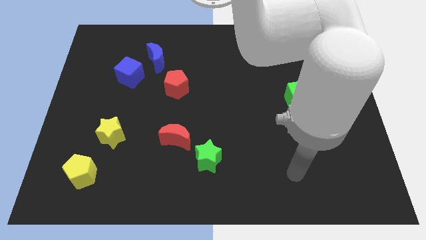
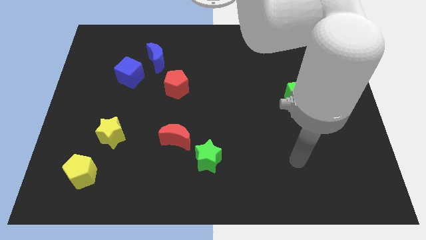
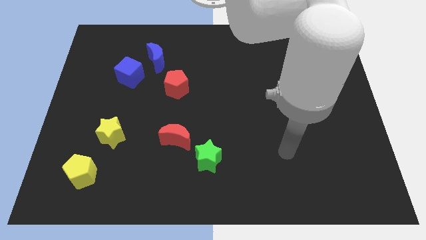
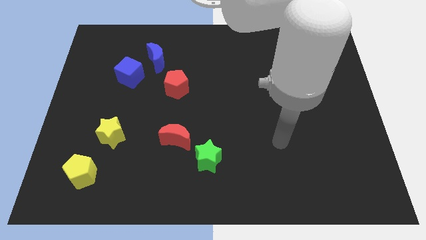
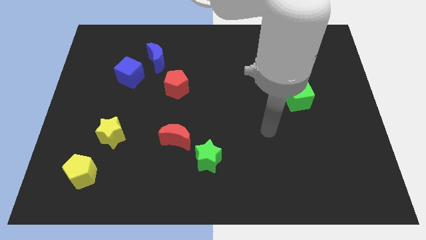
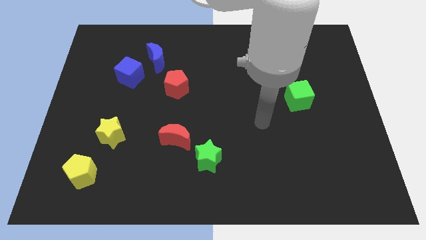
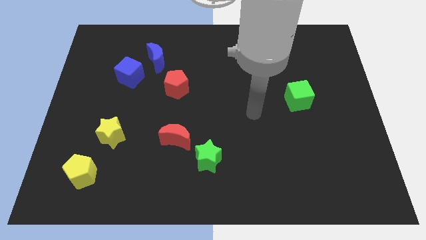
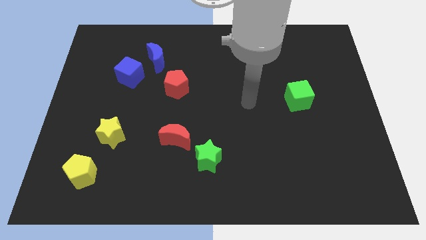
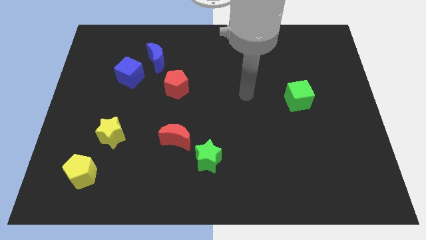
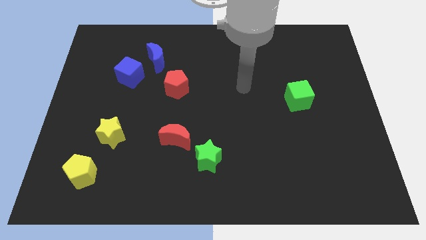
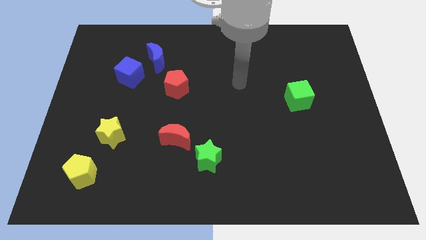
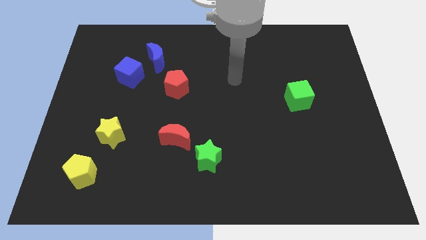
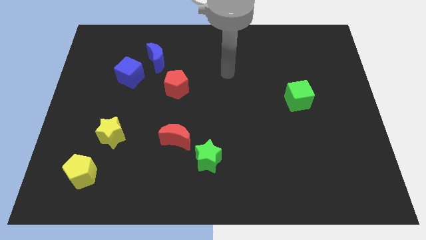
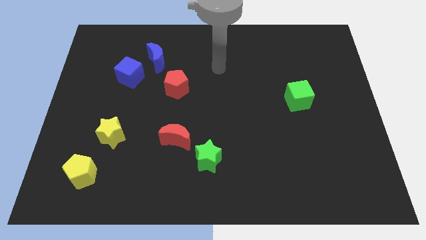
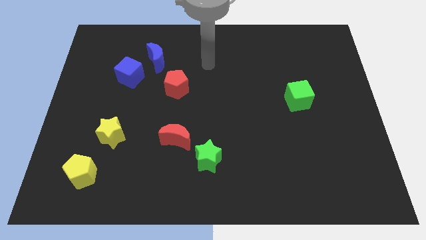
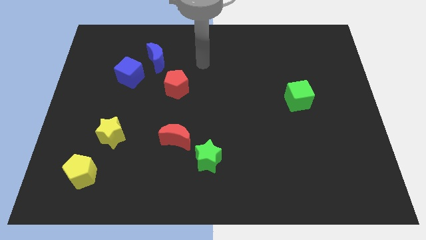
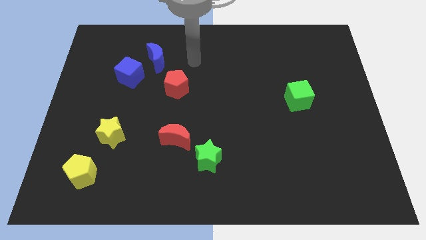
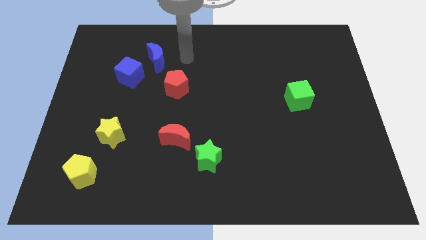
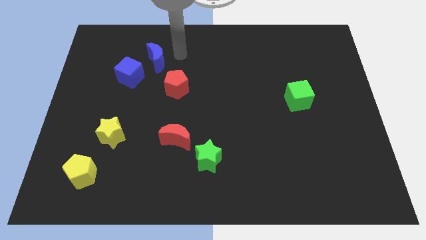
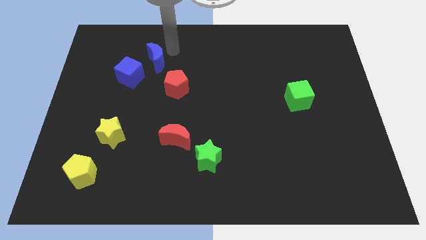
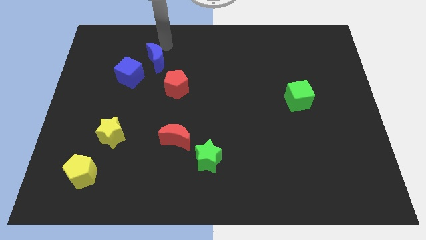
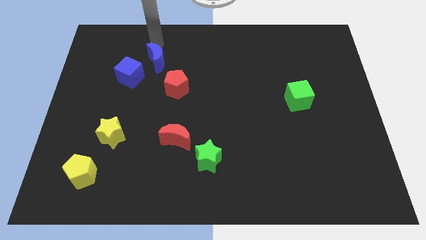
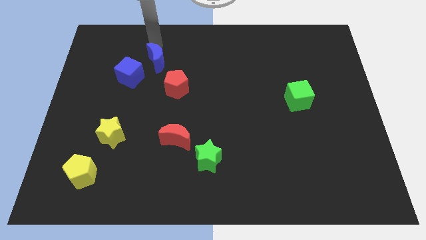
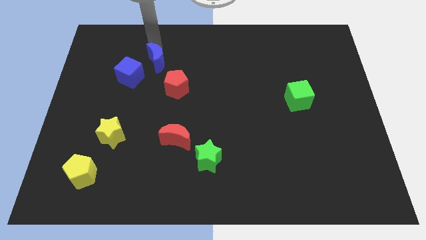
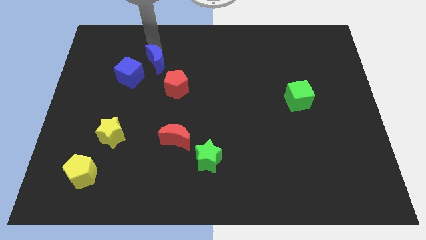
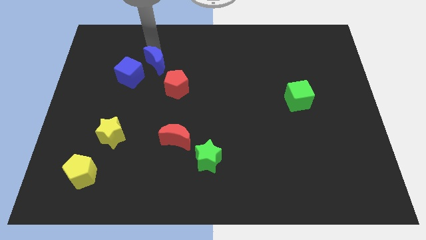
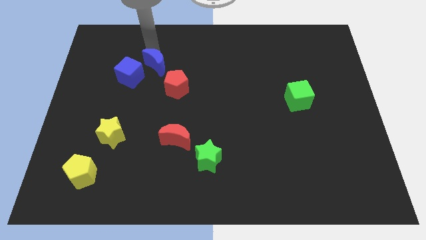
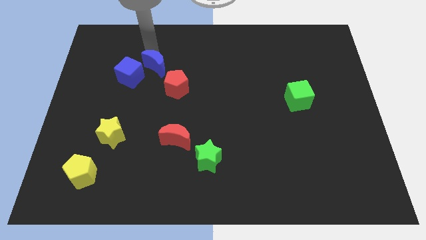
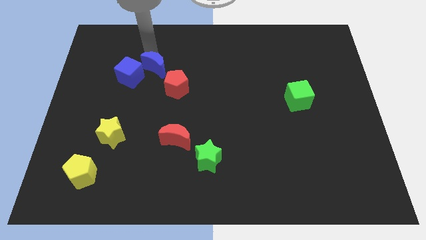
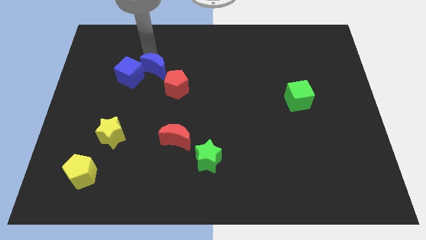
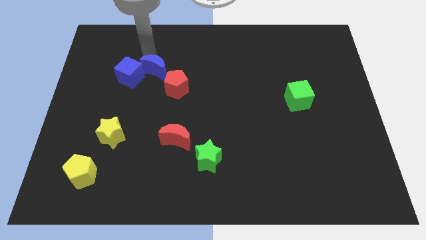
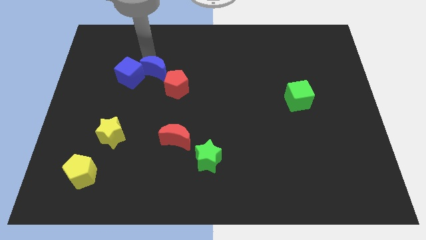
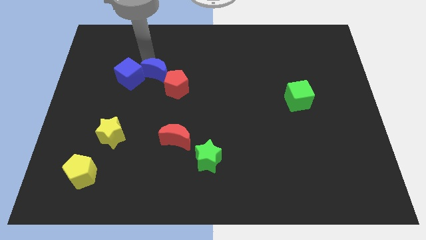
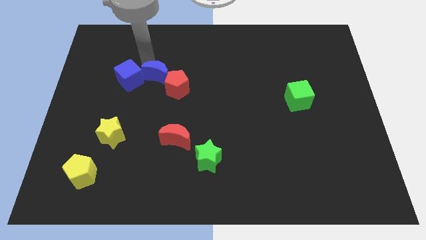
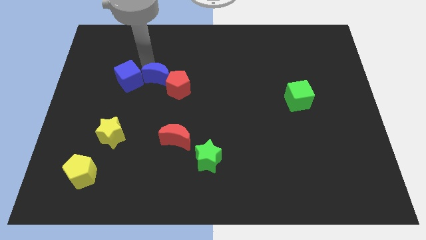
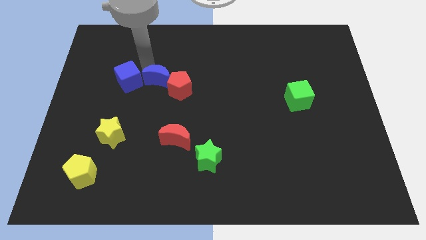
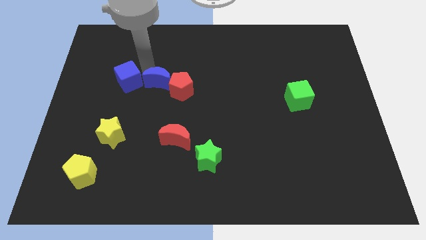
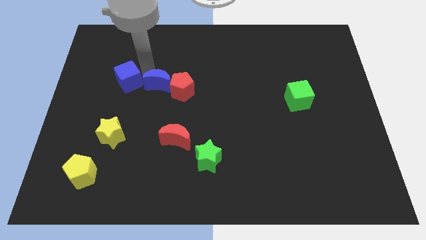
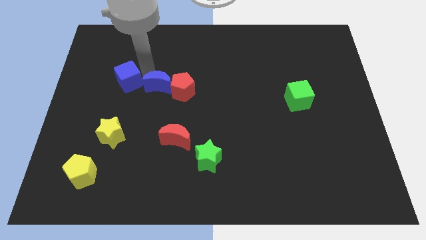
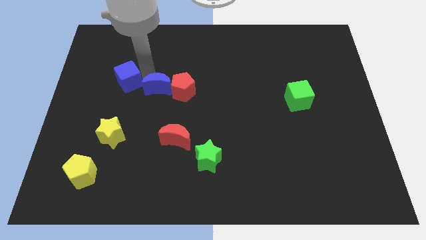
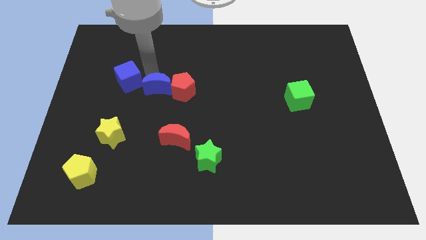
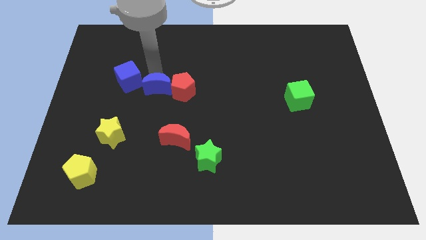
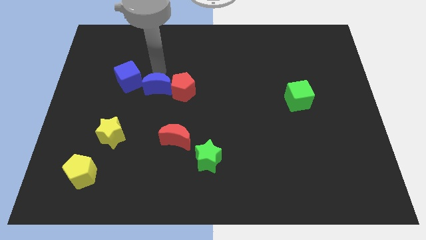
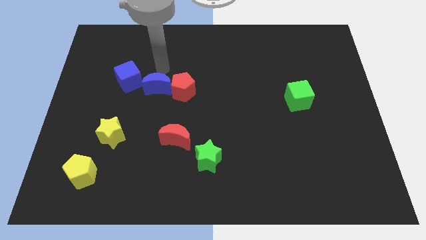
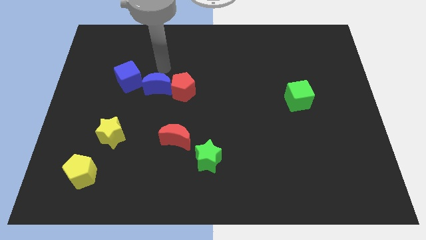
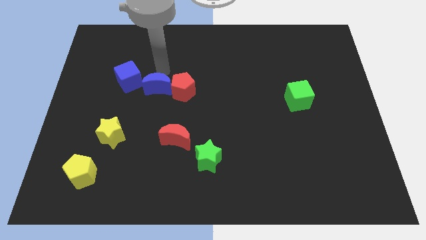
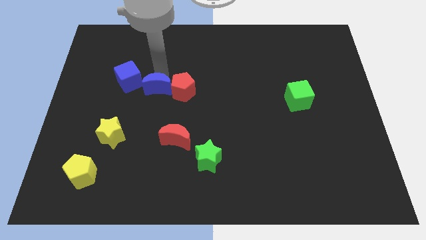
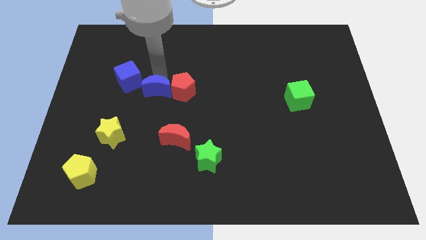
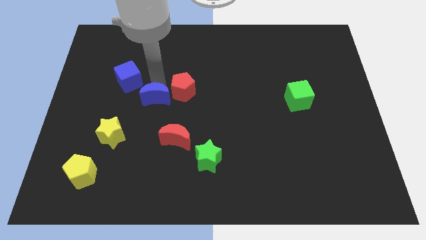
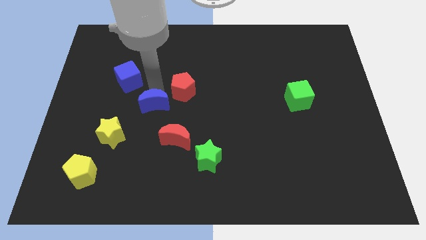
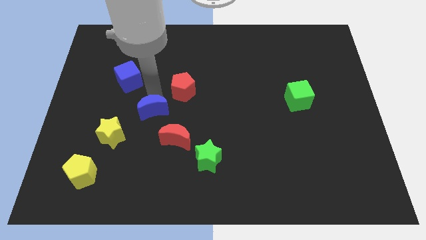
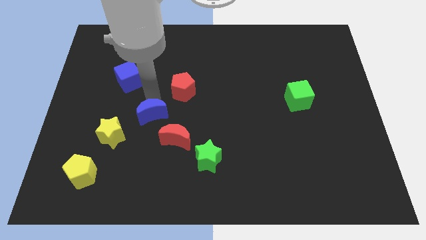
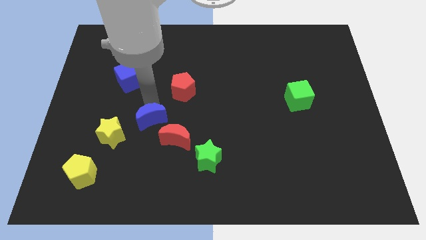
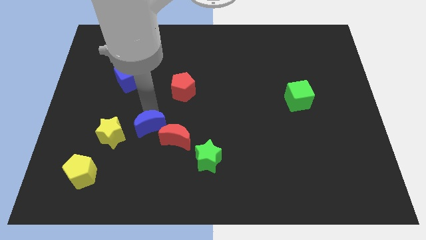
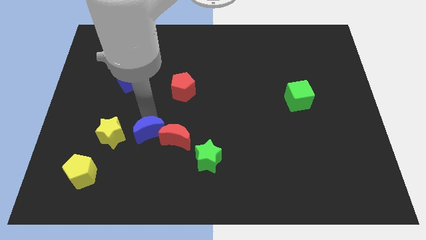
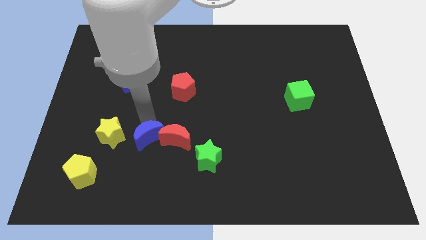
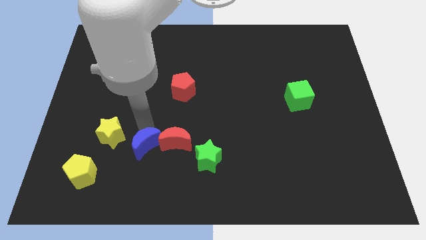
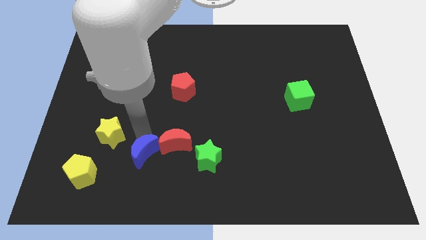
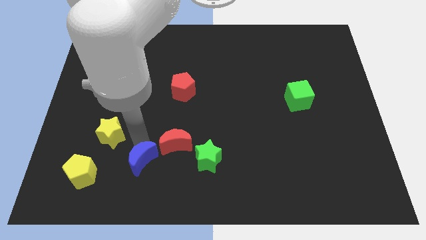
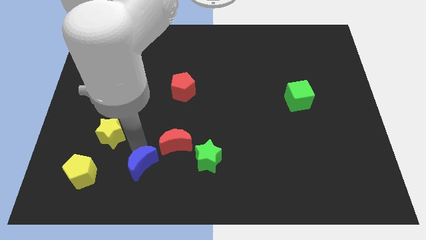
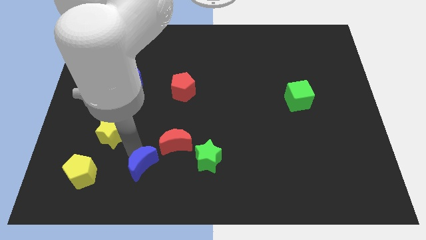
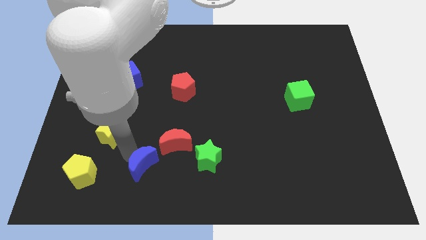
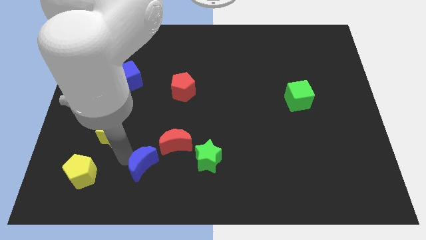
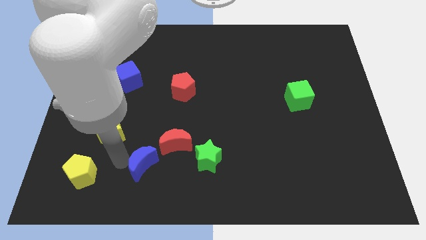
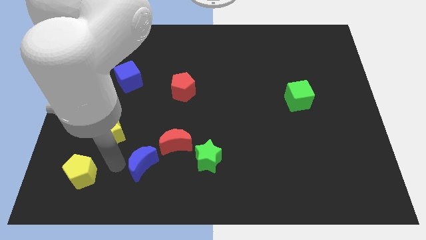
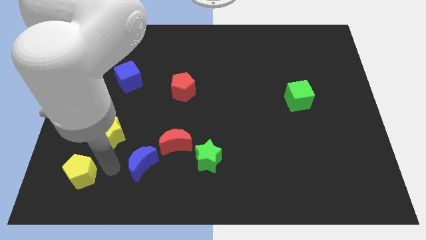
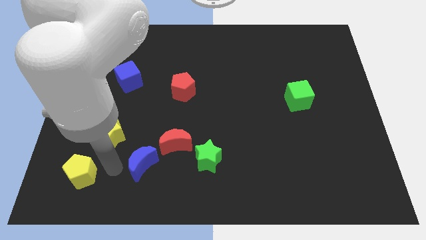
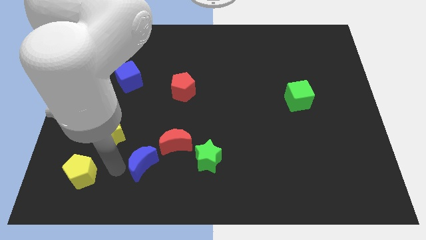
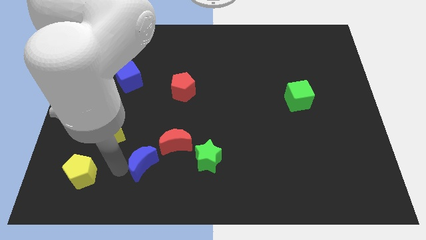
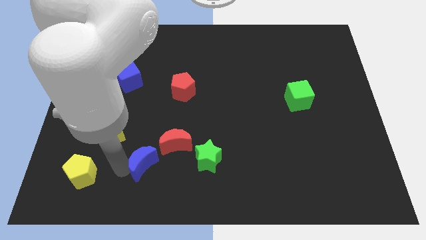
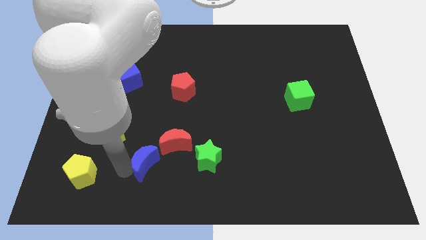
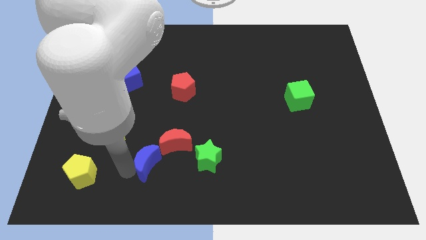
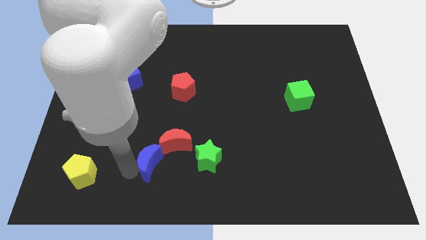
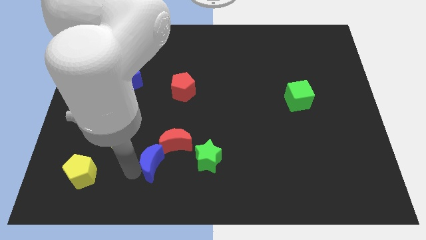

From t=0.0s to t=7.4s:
put the blue moon to the bottom side of the red moon
